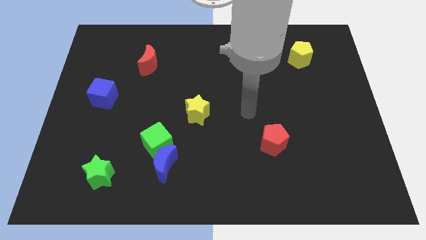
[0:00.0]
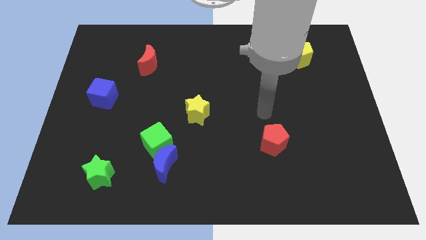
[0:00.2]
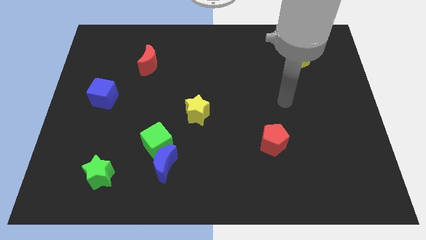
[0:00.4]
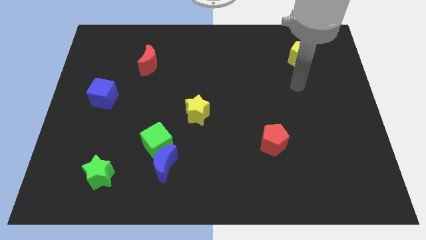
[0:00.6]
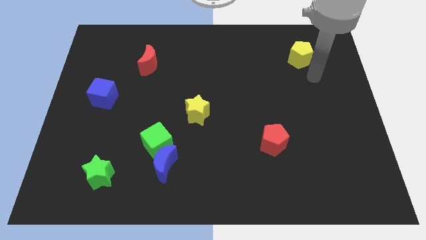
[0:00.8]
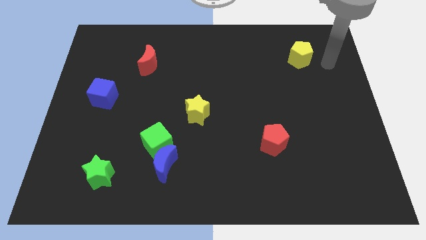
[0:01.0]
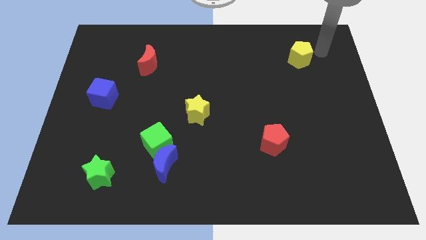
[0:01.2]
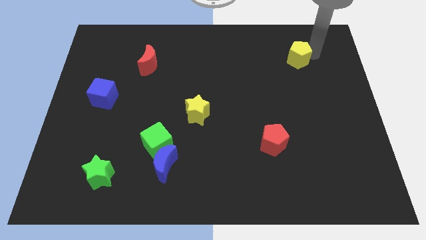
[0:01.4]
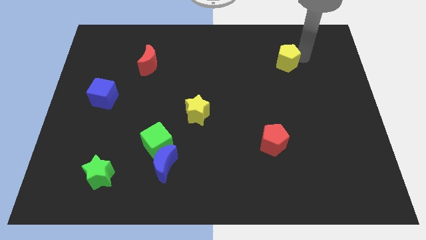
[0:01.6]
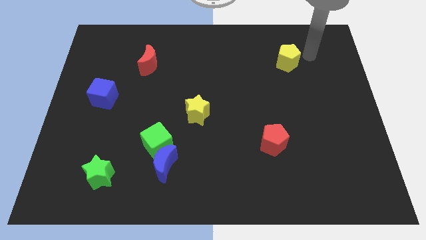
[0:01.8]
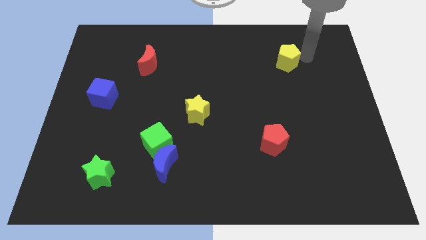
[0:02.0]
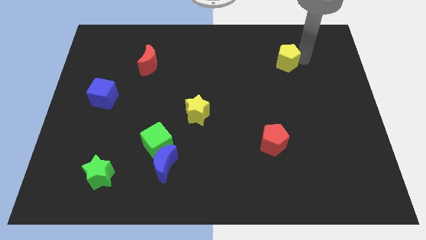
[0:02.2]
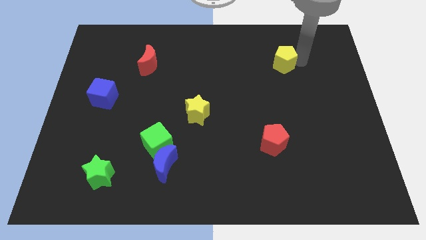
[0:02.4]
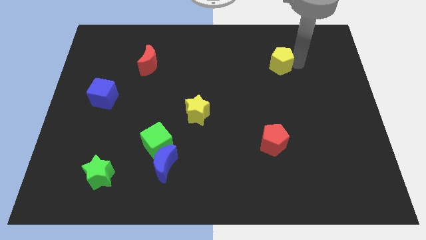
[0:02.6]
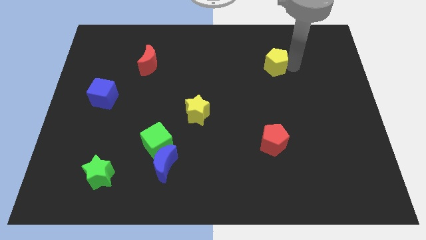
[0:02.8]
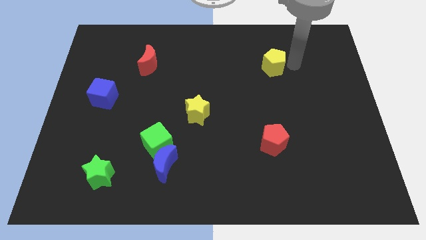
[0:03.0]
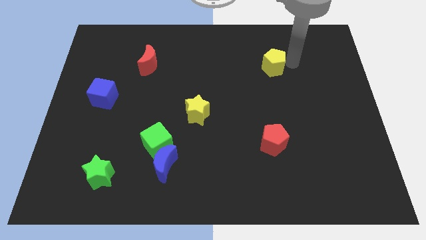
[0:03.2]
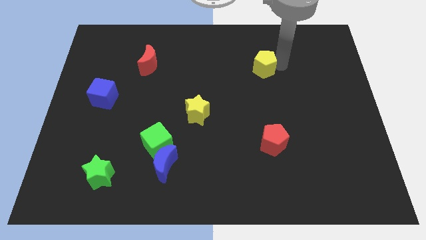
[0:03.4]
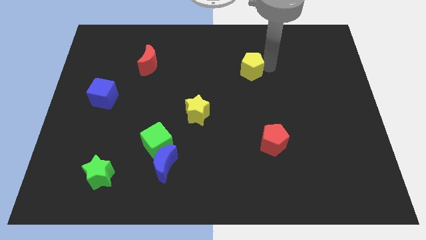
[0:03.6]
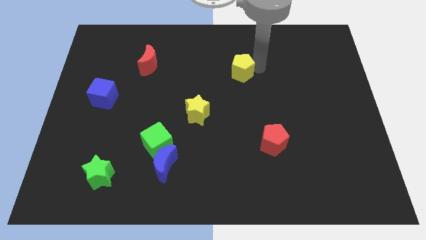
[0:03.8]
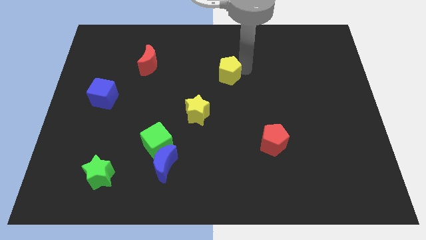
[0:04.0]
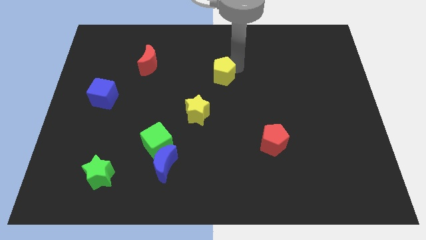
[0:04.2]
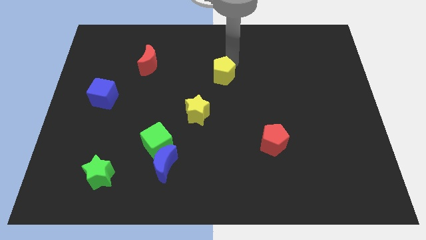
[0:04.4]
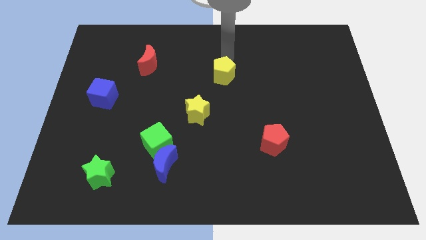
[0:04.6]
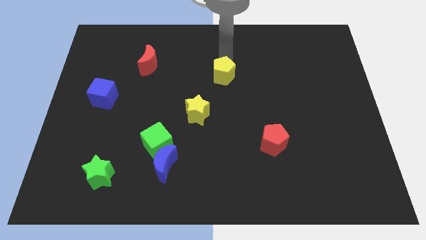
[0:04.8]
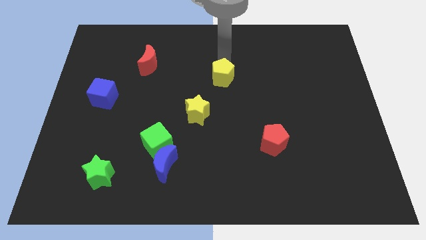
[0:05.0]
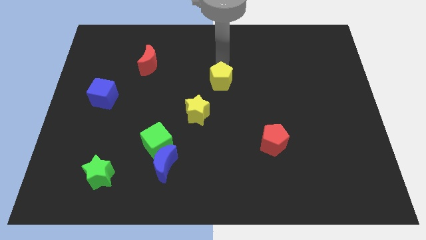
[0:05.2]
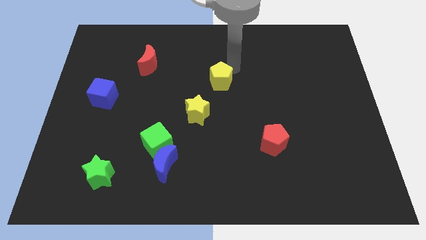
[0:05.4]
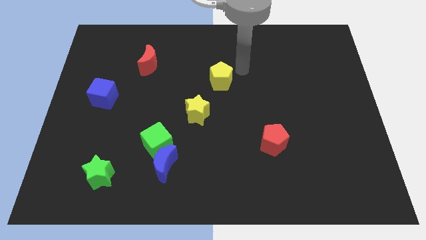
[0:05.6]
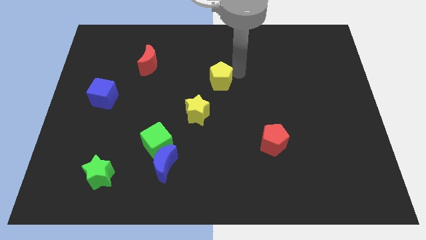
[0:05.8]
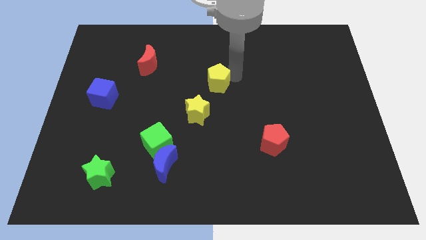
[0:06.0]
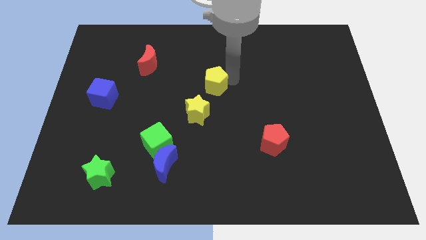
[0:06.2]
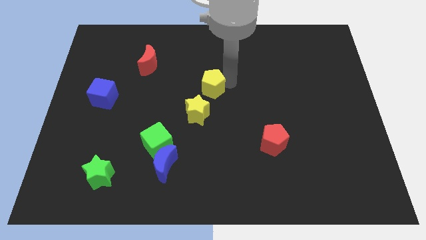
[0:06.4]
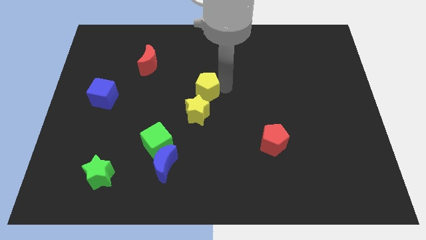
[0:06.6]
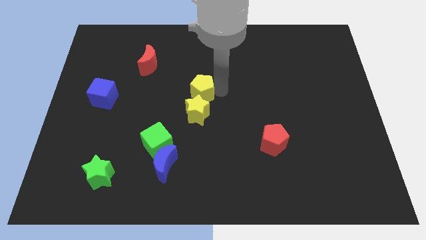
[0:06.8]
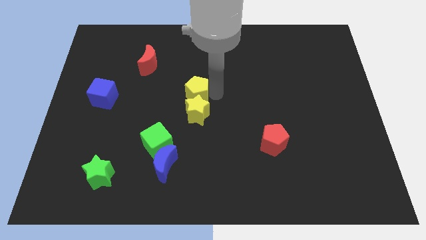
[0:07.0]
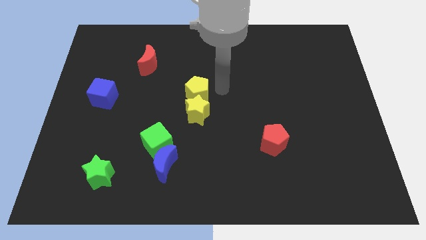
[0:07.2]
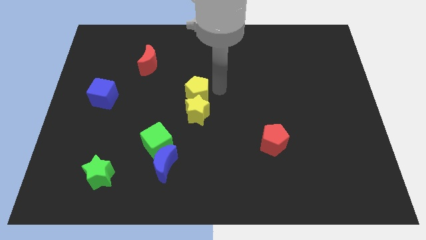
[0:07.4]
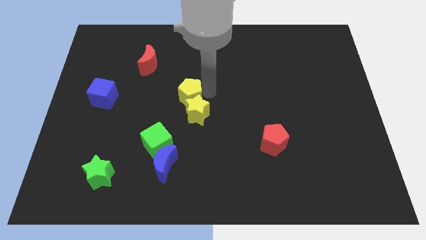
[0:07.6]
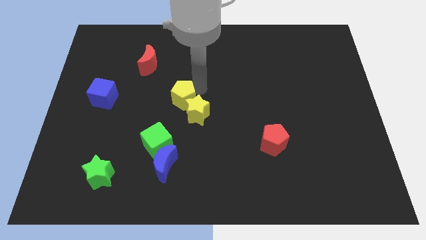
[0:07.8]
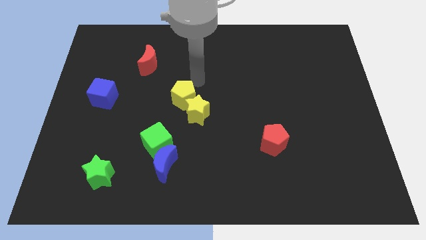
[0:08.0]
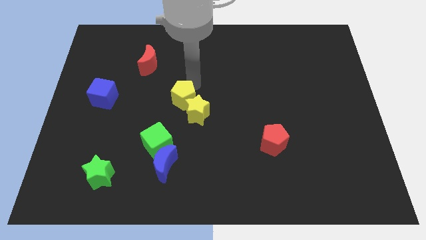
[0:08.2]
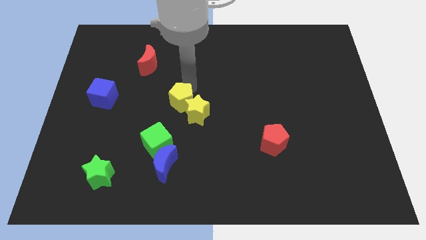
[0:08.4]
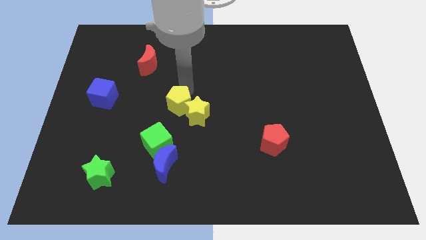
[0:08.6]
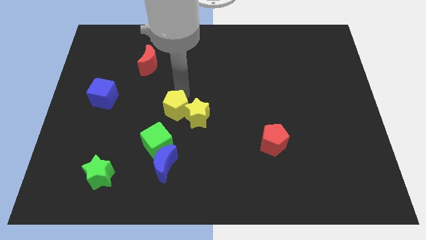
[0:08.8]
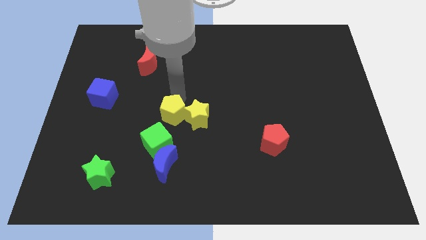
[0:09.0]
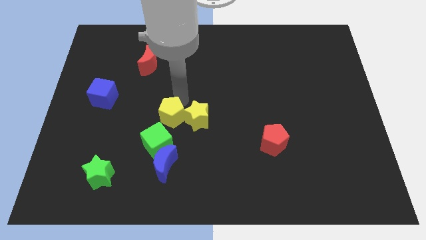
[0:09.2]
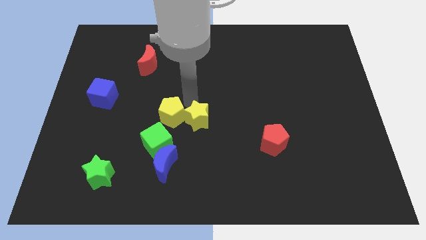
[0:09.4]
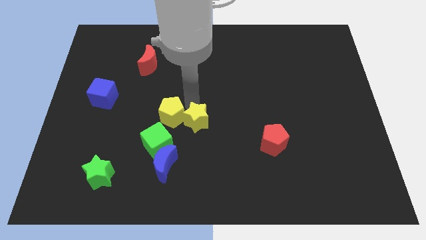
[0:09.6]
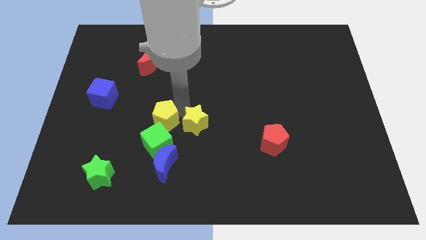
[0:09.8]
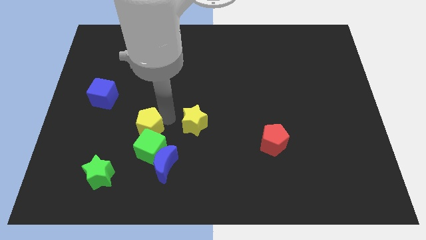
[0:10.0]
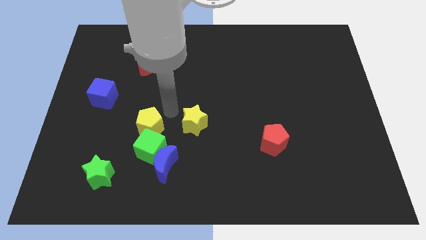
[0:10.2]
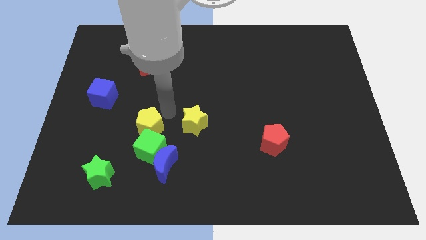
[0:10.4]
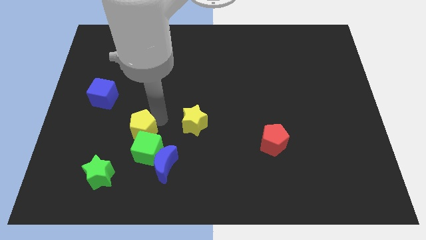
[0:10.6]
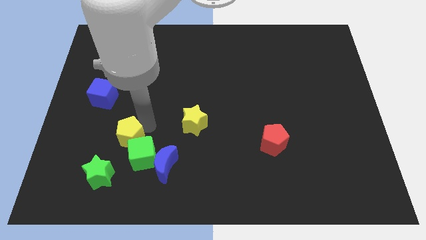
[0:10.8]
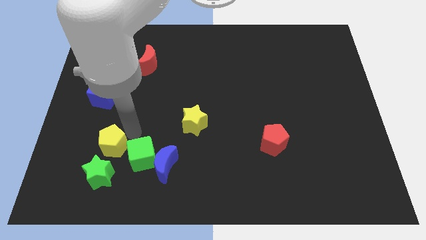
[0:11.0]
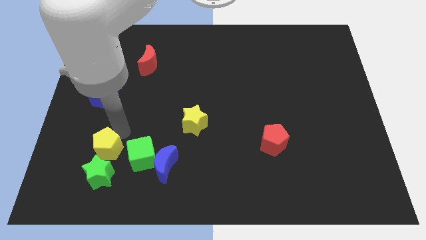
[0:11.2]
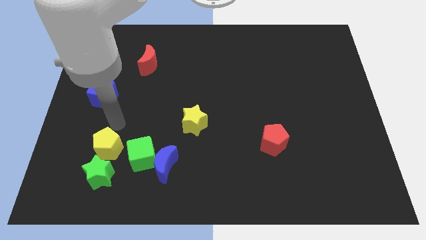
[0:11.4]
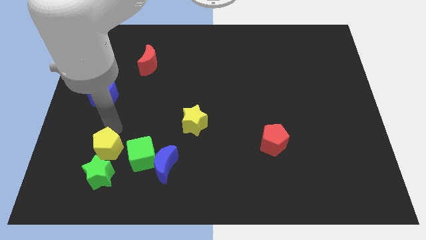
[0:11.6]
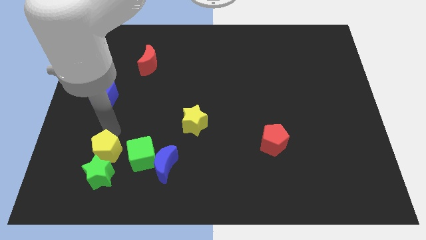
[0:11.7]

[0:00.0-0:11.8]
push the yellow pentagon to the green star

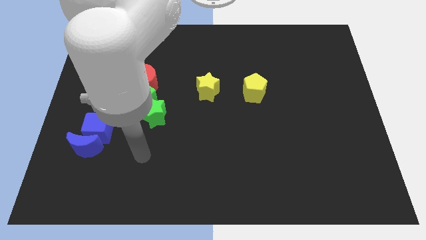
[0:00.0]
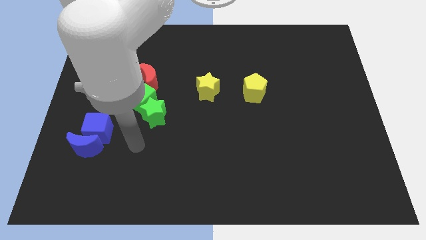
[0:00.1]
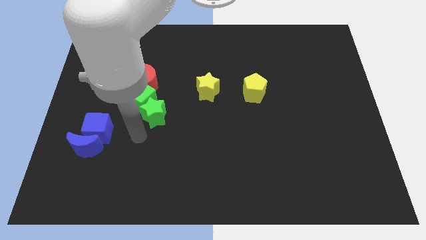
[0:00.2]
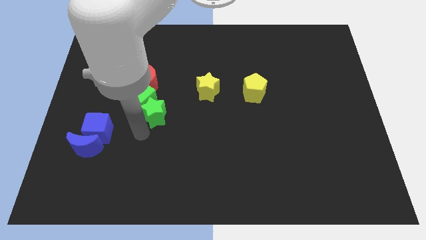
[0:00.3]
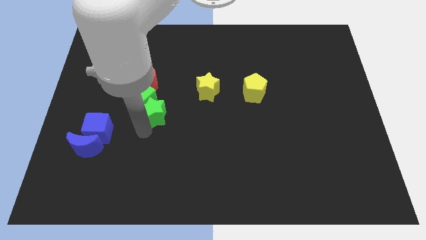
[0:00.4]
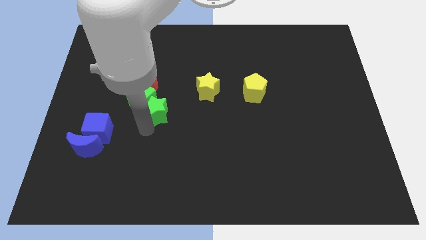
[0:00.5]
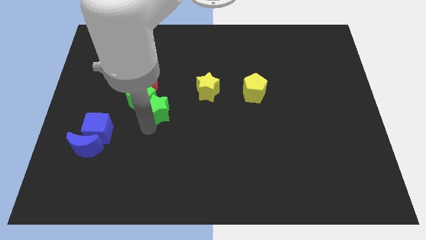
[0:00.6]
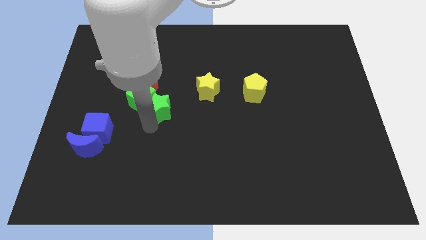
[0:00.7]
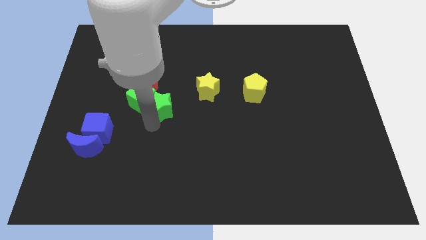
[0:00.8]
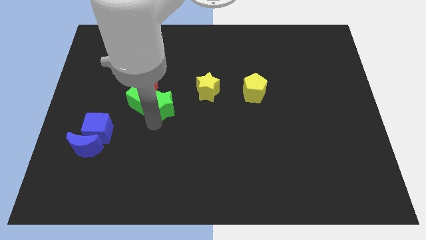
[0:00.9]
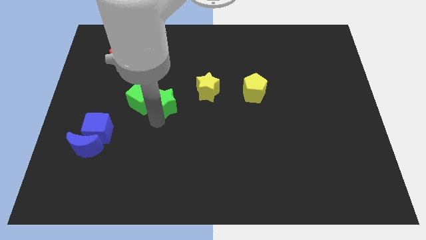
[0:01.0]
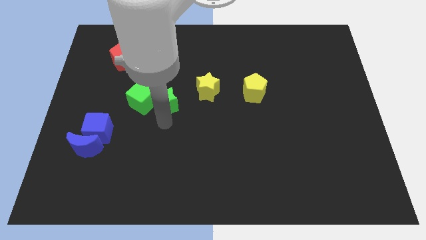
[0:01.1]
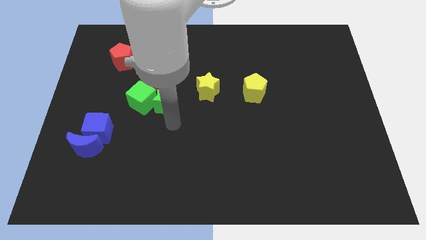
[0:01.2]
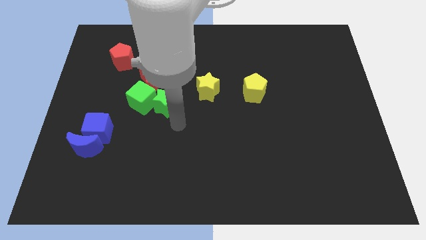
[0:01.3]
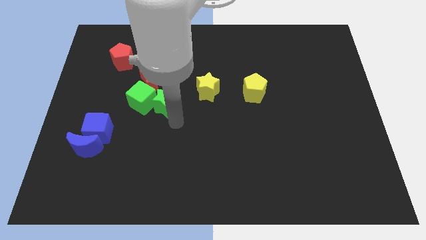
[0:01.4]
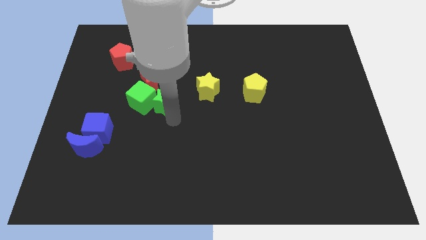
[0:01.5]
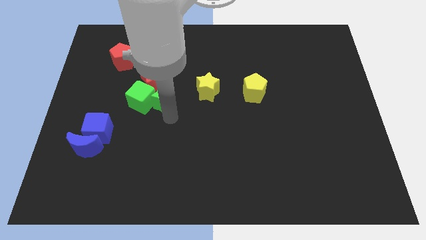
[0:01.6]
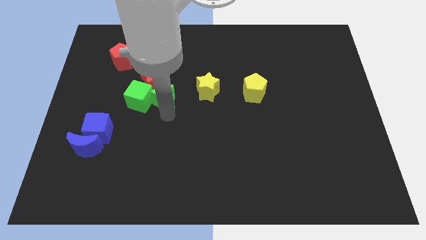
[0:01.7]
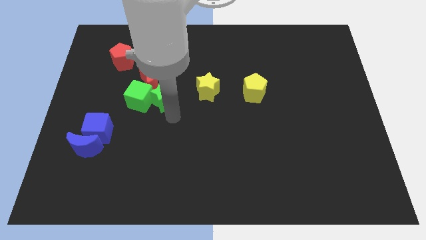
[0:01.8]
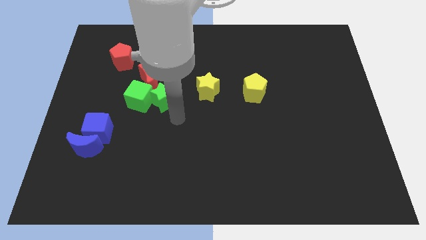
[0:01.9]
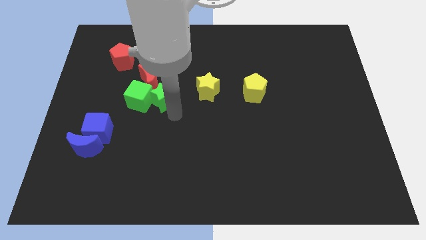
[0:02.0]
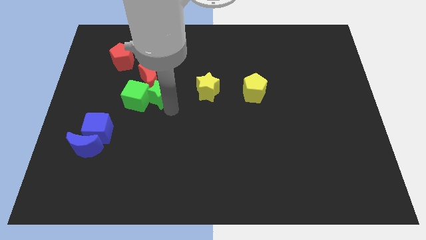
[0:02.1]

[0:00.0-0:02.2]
move the green star towards the red moon
